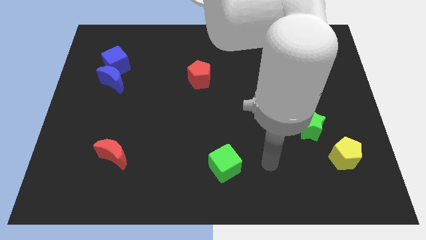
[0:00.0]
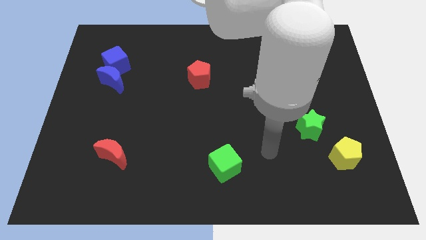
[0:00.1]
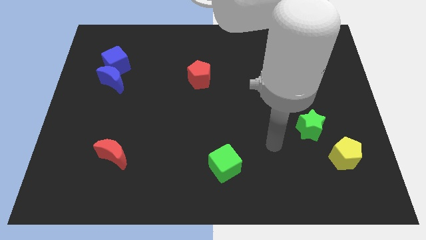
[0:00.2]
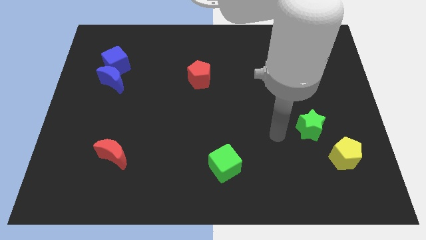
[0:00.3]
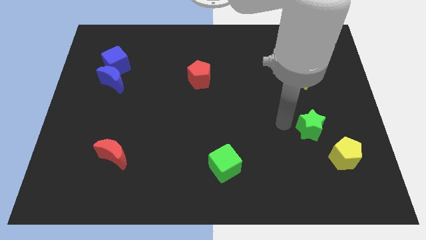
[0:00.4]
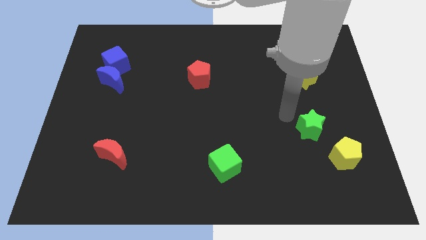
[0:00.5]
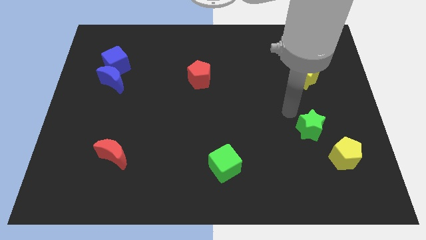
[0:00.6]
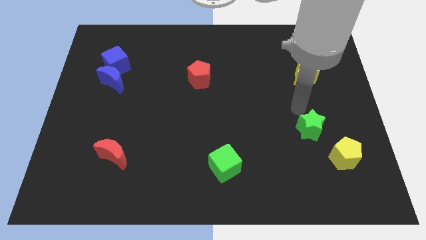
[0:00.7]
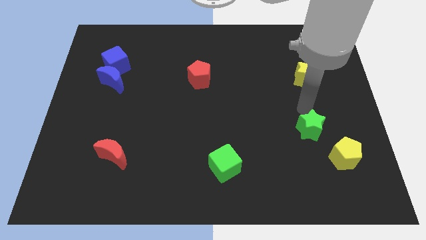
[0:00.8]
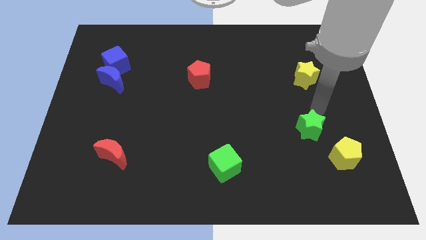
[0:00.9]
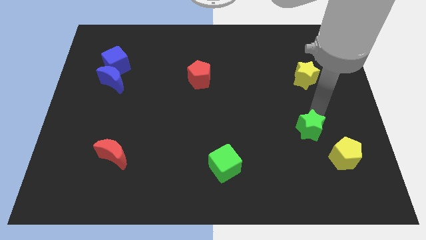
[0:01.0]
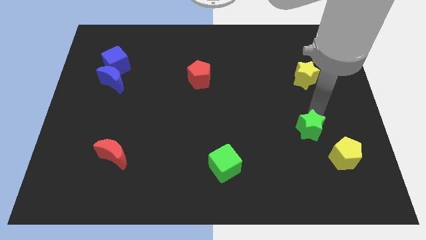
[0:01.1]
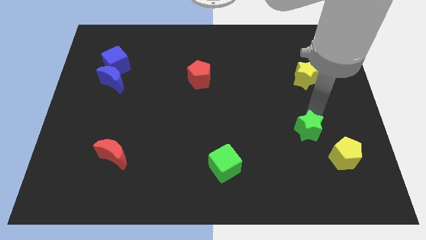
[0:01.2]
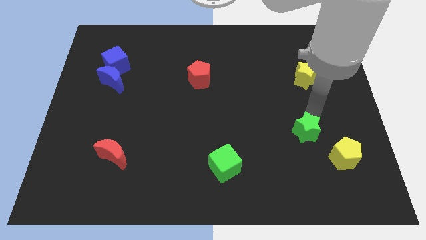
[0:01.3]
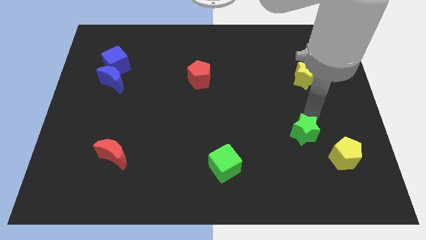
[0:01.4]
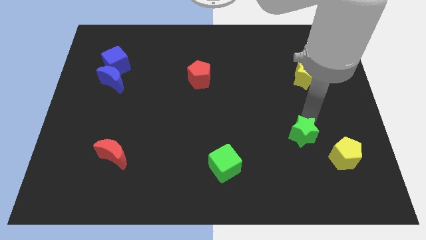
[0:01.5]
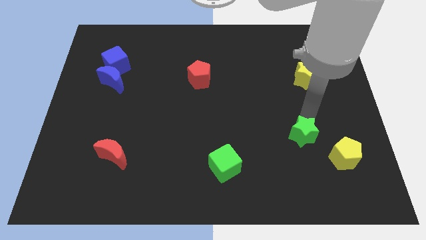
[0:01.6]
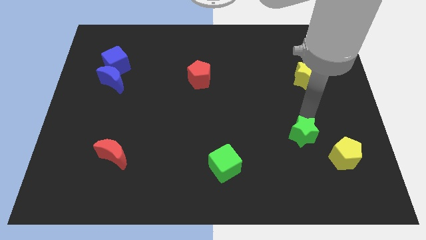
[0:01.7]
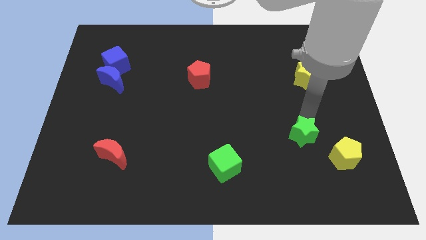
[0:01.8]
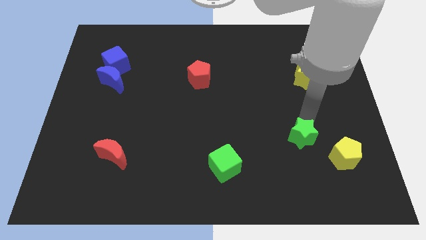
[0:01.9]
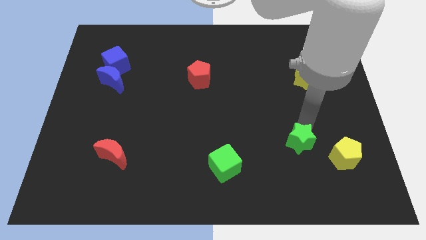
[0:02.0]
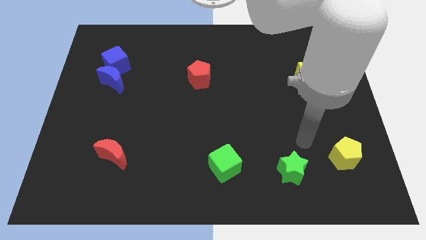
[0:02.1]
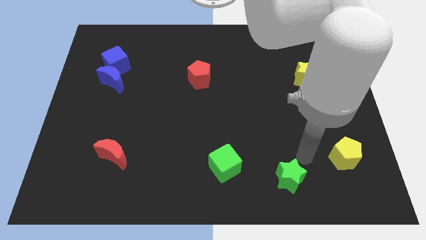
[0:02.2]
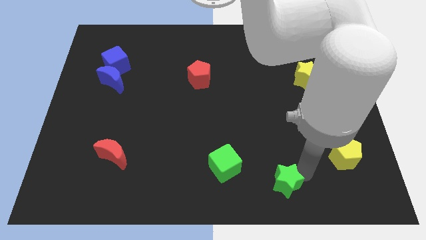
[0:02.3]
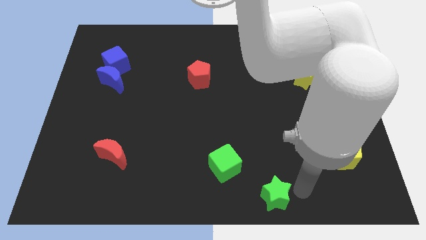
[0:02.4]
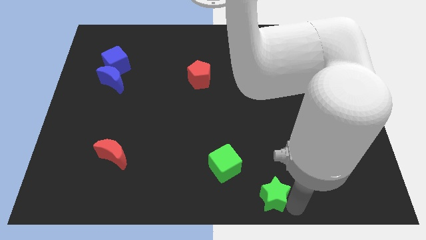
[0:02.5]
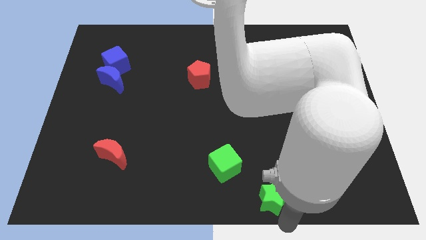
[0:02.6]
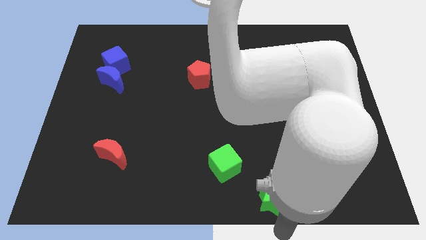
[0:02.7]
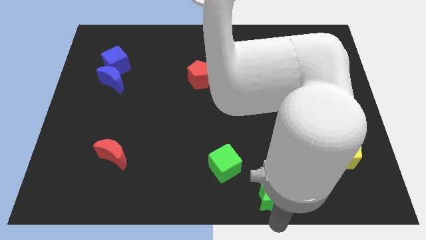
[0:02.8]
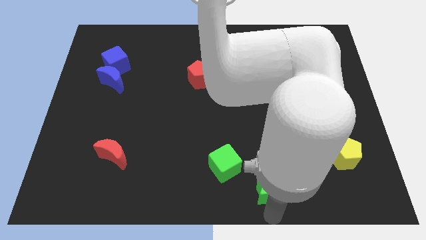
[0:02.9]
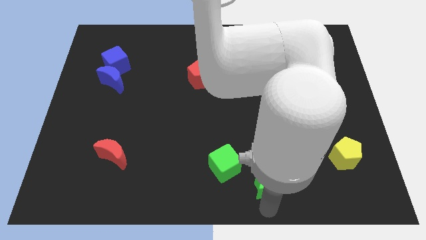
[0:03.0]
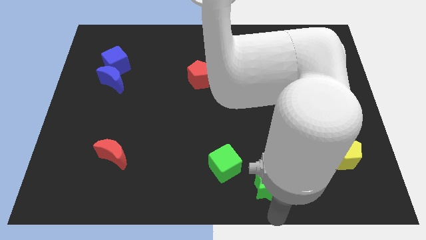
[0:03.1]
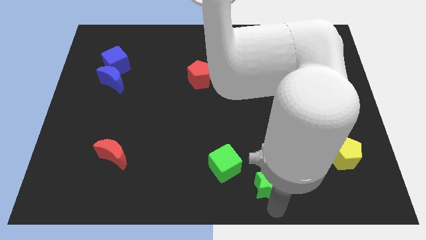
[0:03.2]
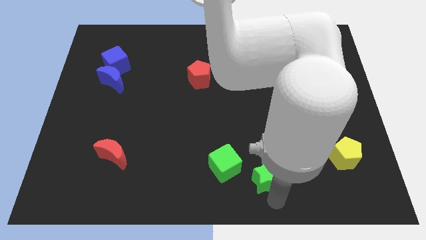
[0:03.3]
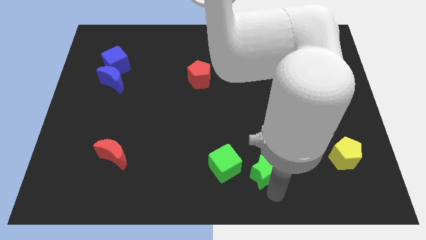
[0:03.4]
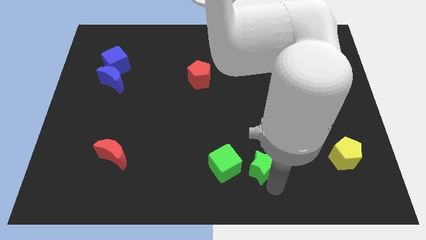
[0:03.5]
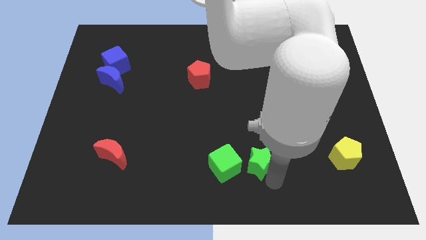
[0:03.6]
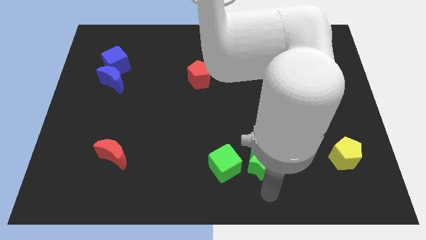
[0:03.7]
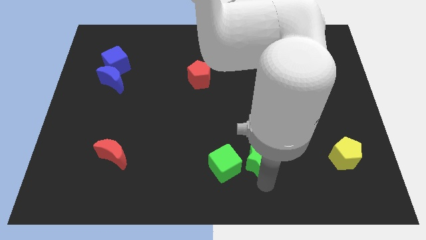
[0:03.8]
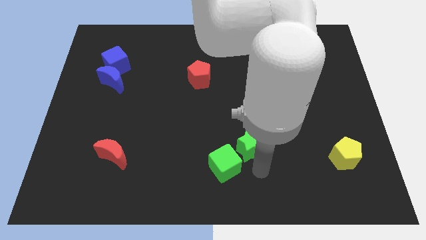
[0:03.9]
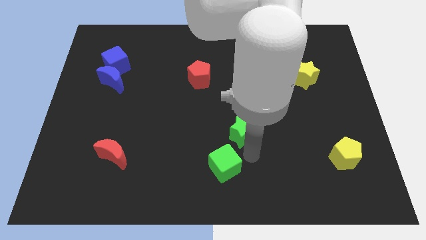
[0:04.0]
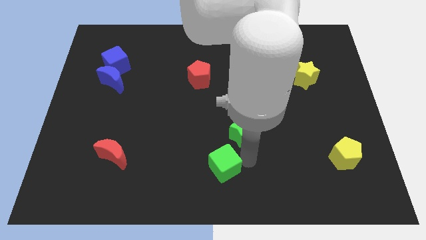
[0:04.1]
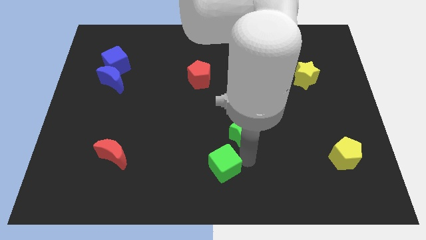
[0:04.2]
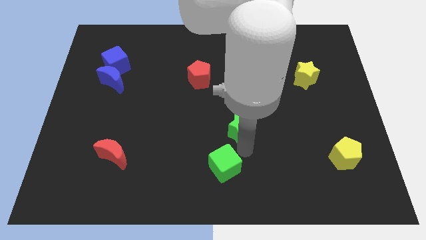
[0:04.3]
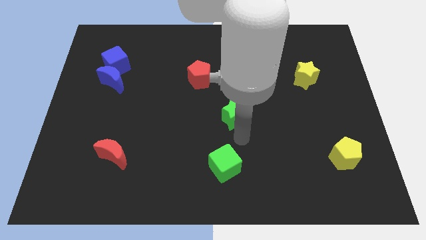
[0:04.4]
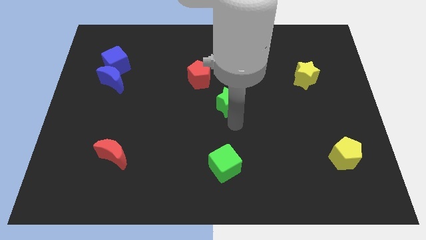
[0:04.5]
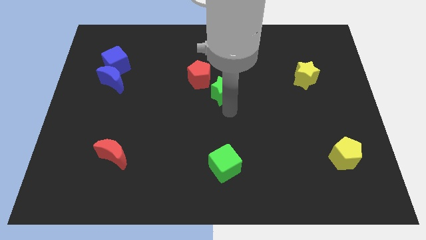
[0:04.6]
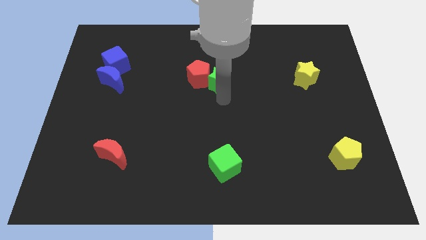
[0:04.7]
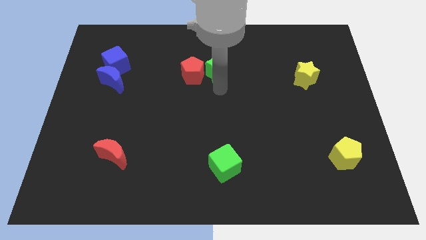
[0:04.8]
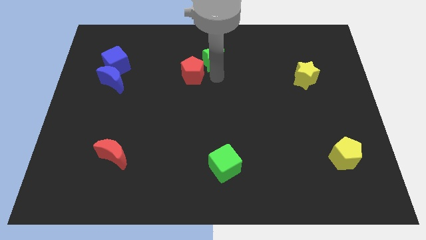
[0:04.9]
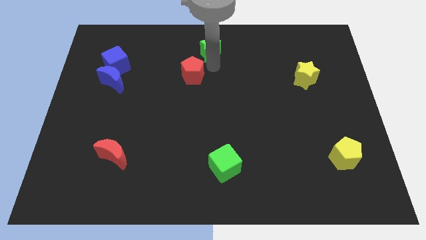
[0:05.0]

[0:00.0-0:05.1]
put the green star to the top side

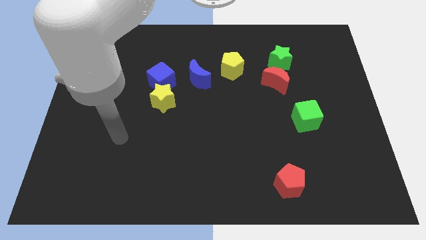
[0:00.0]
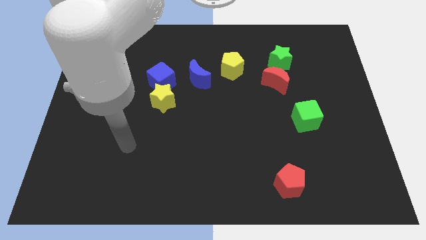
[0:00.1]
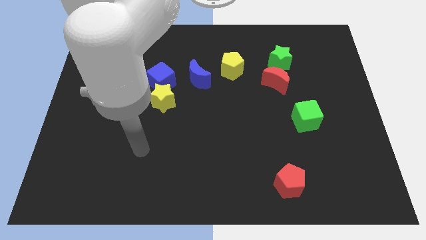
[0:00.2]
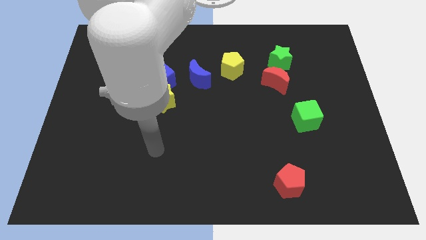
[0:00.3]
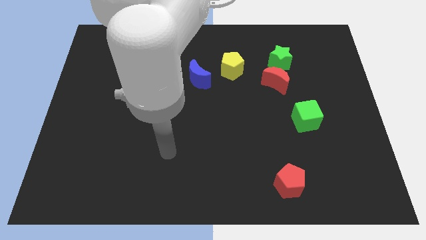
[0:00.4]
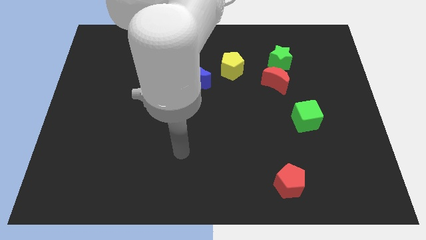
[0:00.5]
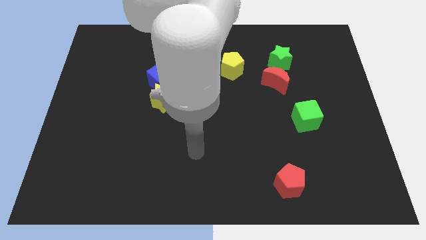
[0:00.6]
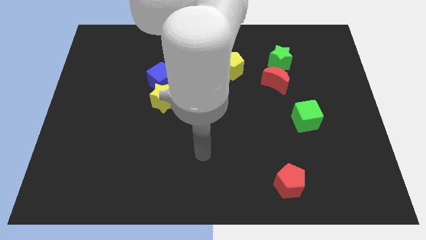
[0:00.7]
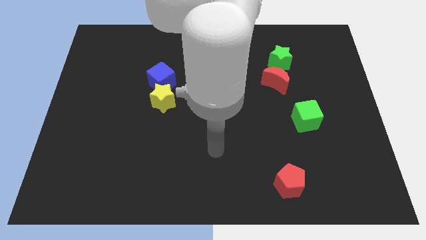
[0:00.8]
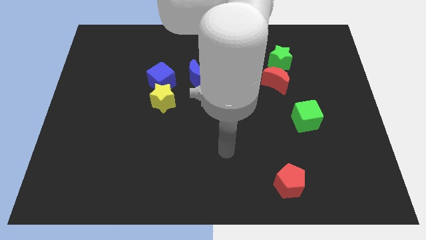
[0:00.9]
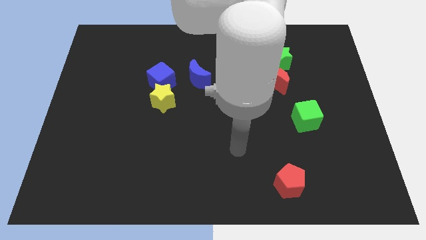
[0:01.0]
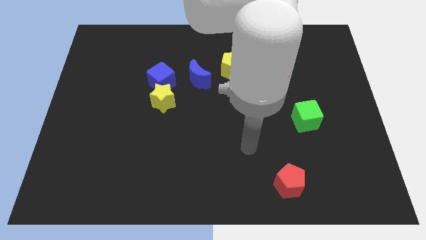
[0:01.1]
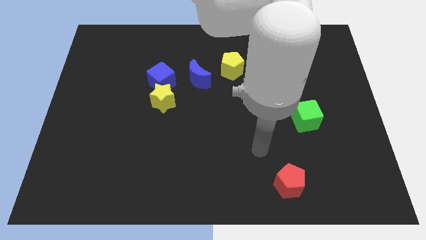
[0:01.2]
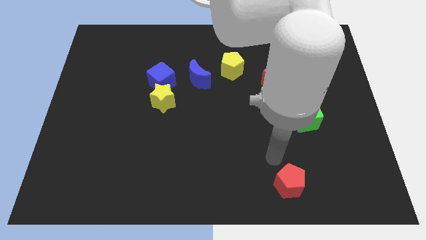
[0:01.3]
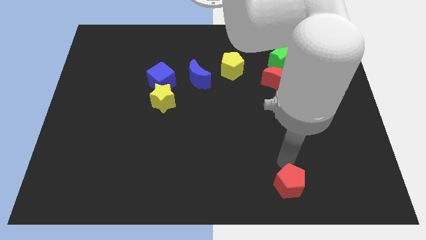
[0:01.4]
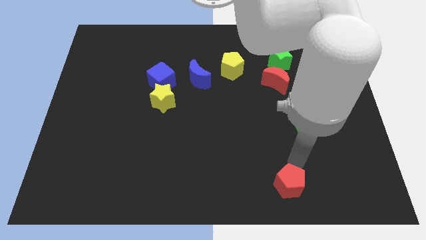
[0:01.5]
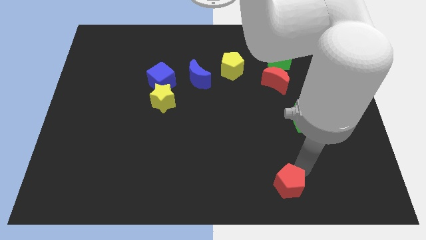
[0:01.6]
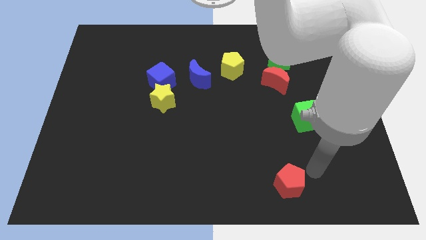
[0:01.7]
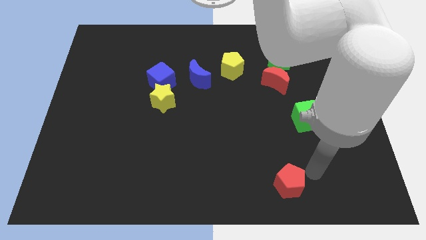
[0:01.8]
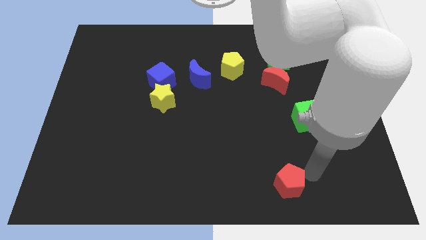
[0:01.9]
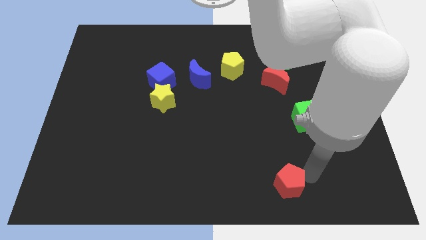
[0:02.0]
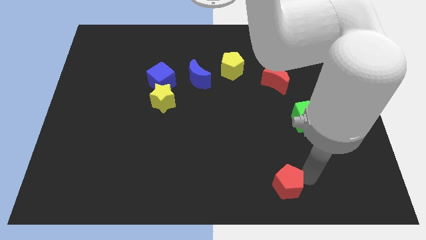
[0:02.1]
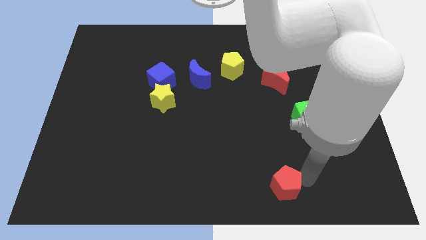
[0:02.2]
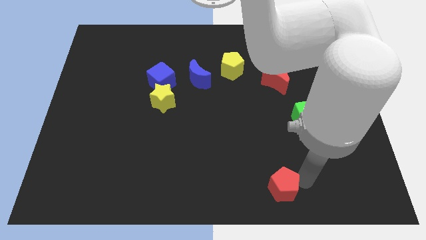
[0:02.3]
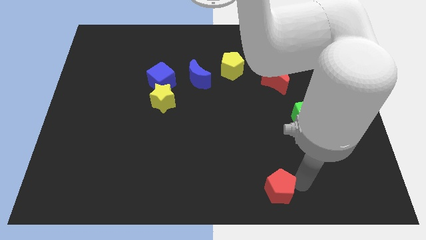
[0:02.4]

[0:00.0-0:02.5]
slide the red pentagon to the bottom side
